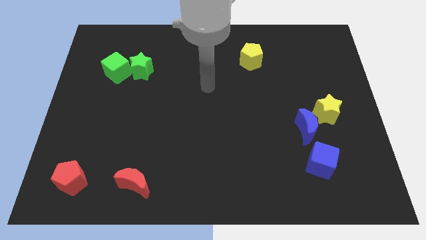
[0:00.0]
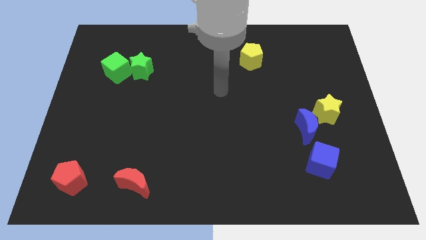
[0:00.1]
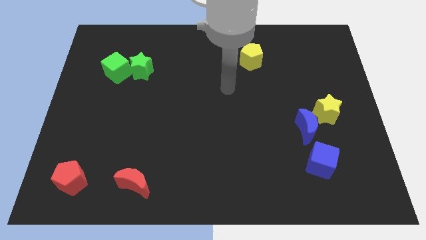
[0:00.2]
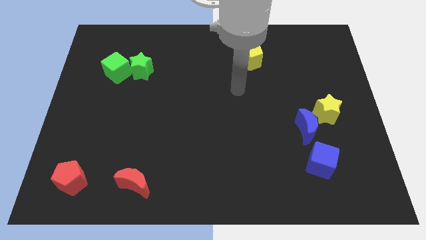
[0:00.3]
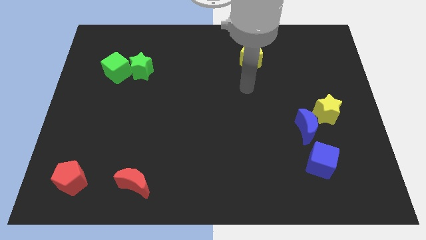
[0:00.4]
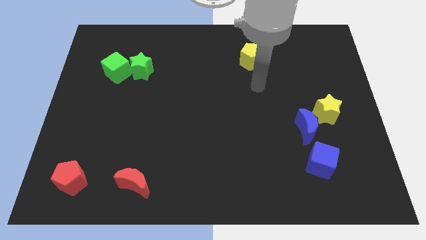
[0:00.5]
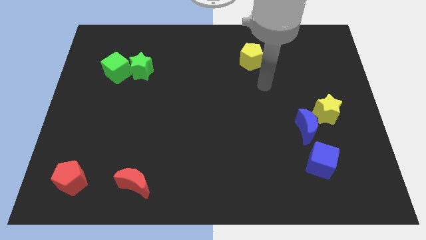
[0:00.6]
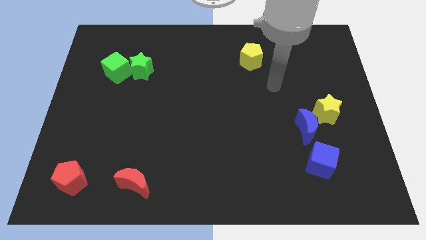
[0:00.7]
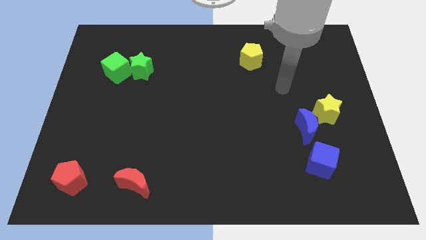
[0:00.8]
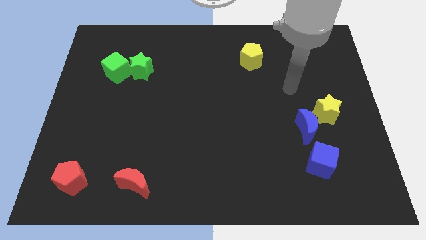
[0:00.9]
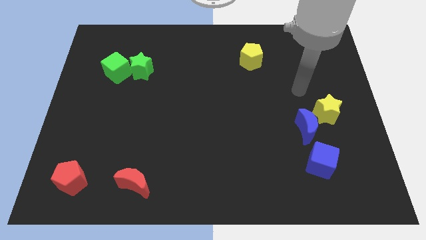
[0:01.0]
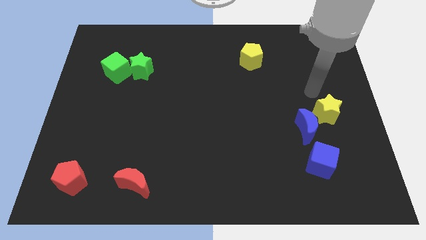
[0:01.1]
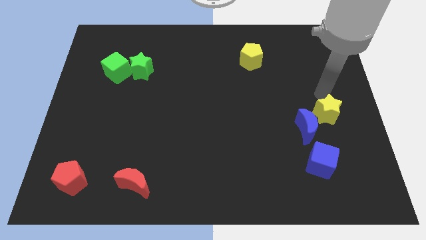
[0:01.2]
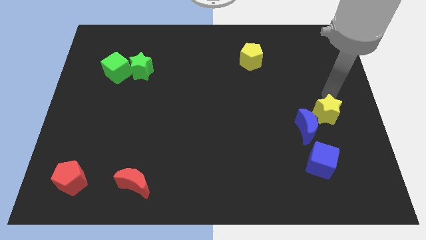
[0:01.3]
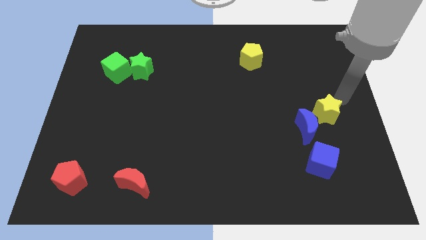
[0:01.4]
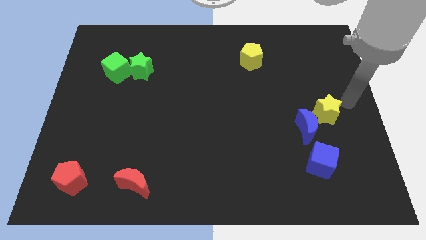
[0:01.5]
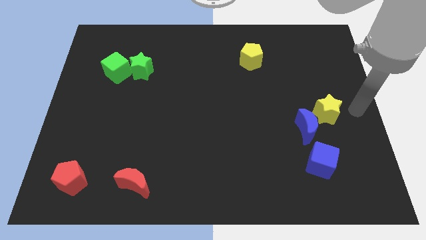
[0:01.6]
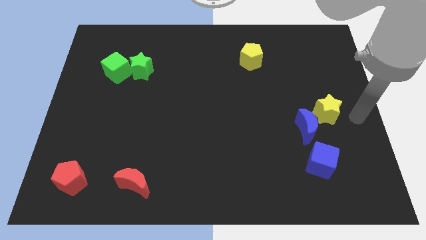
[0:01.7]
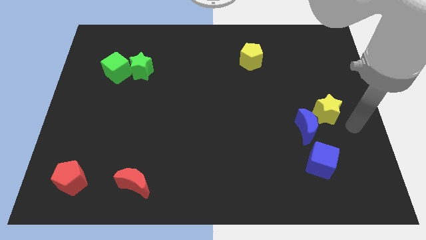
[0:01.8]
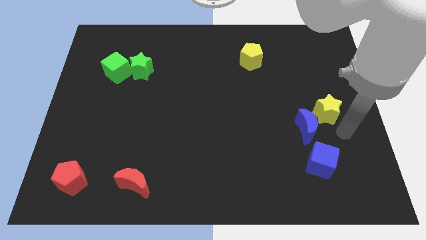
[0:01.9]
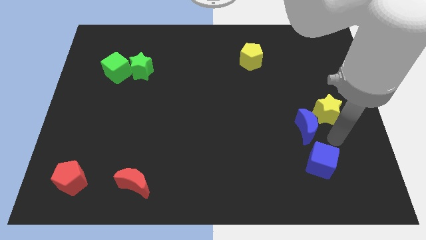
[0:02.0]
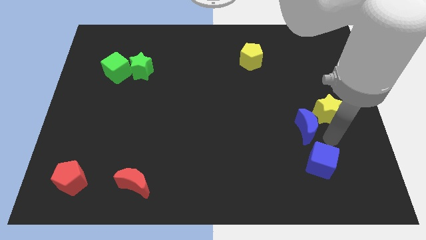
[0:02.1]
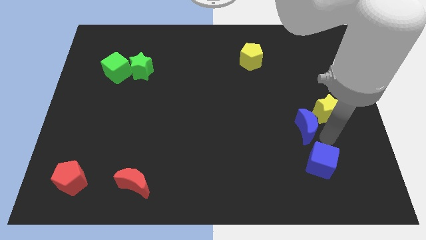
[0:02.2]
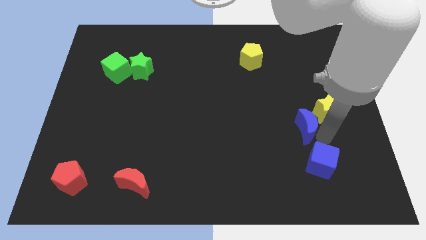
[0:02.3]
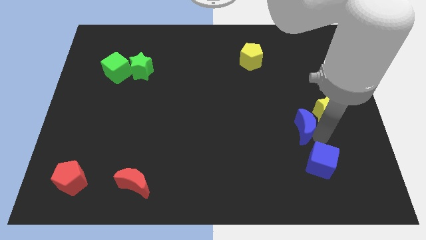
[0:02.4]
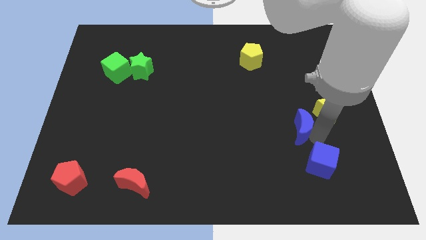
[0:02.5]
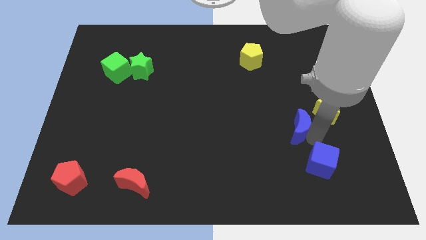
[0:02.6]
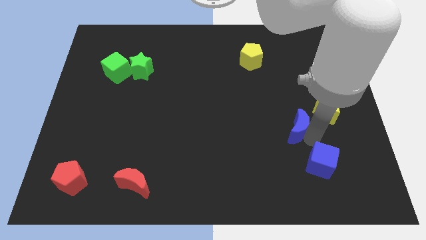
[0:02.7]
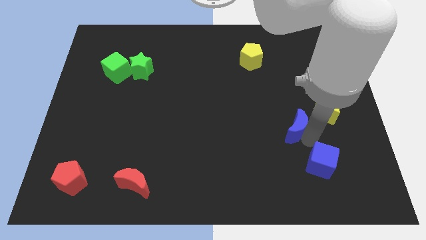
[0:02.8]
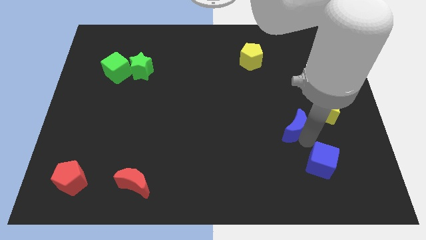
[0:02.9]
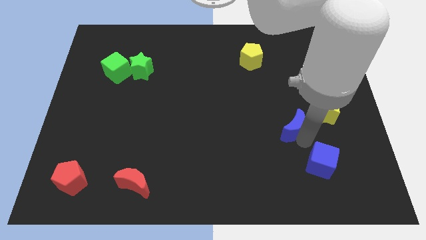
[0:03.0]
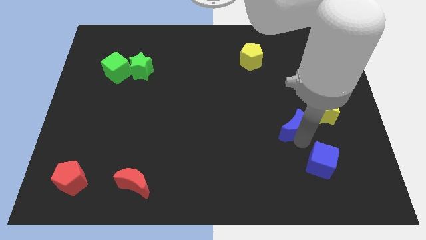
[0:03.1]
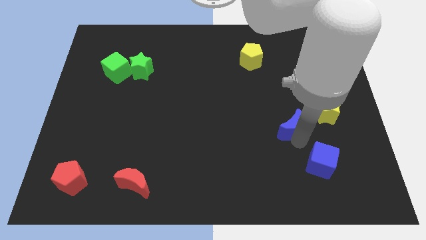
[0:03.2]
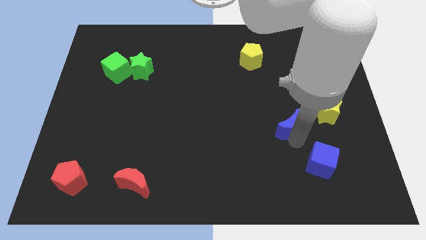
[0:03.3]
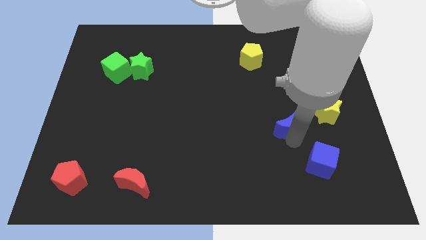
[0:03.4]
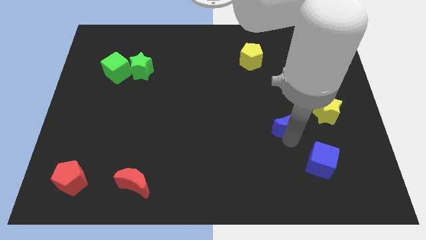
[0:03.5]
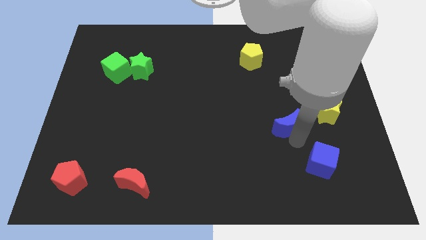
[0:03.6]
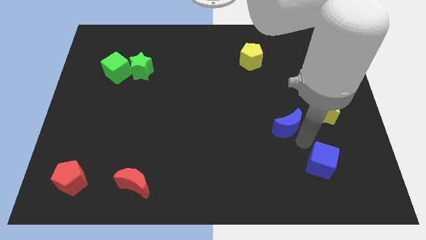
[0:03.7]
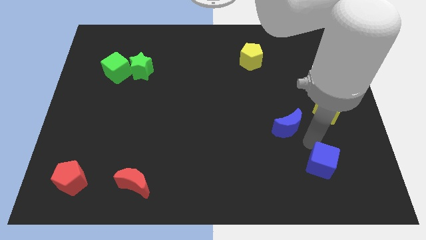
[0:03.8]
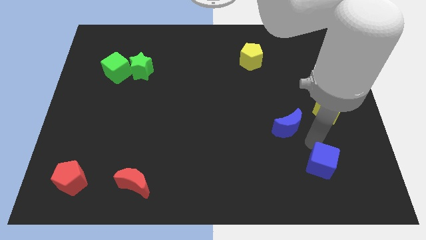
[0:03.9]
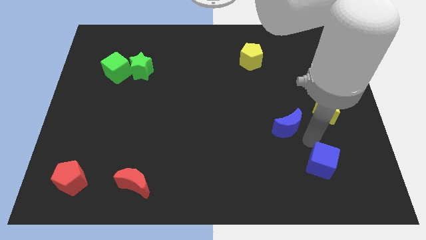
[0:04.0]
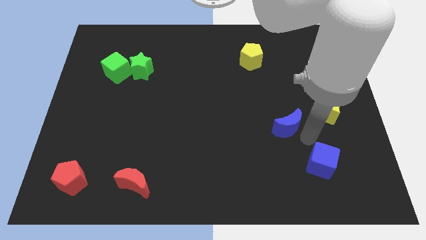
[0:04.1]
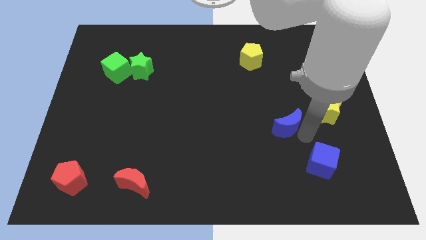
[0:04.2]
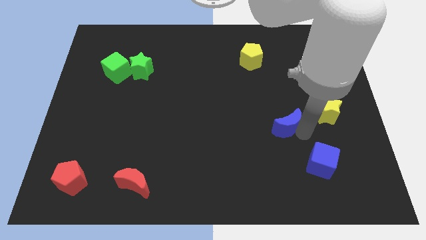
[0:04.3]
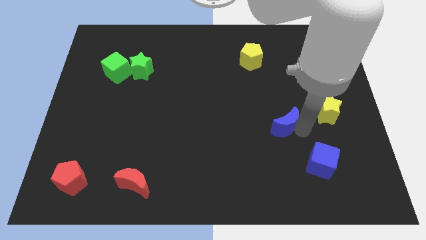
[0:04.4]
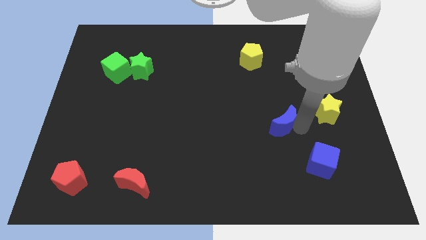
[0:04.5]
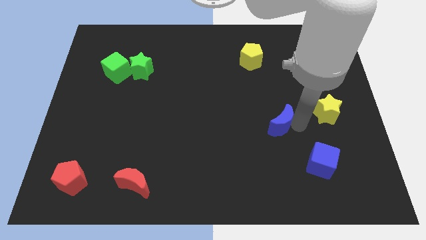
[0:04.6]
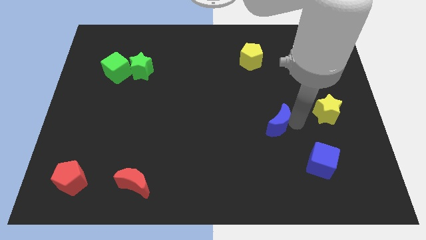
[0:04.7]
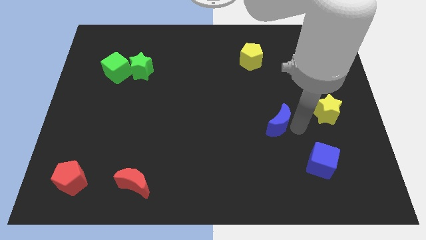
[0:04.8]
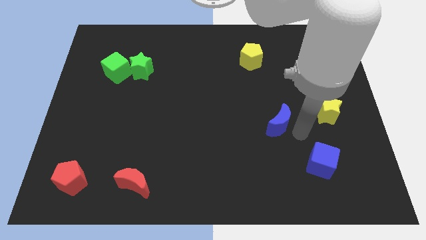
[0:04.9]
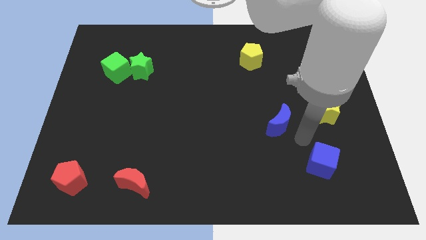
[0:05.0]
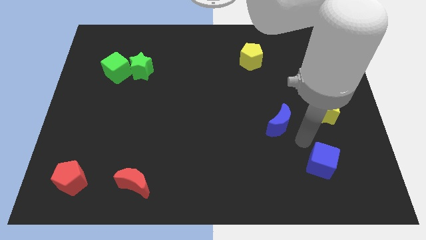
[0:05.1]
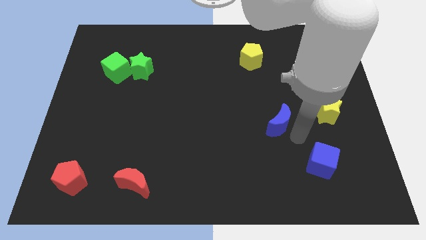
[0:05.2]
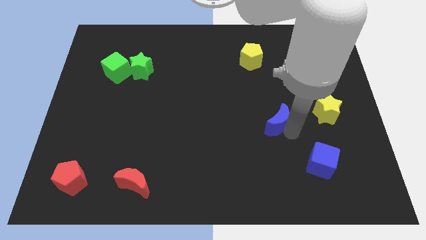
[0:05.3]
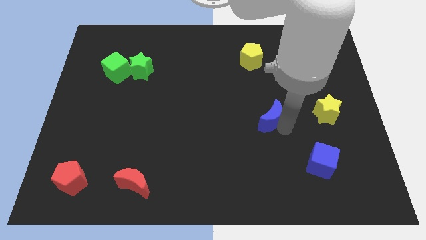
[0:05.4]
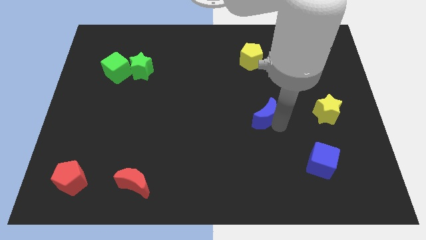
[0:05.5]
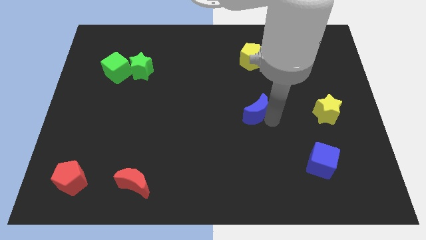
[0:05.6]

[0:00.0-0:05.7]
put the blue moon to the center of the board
